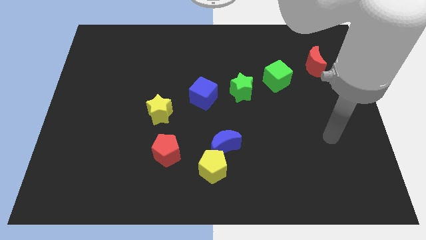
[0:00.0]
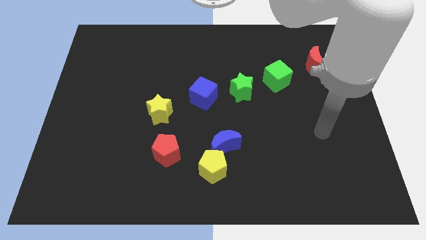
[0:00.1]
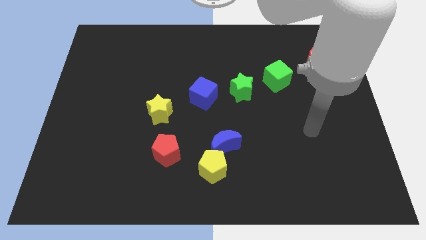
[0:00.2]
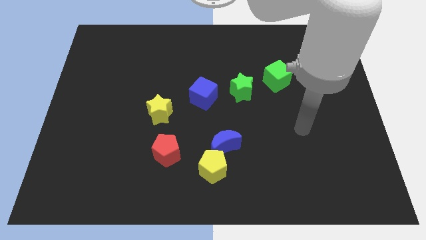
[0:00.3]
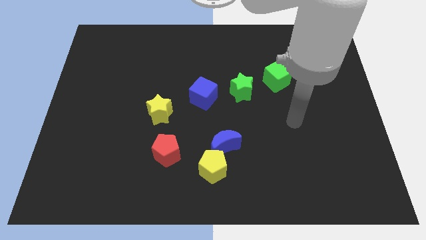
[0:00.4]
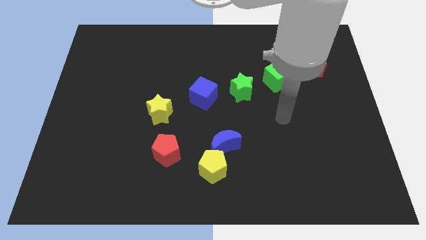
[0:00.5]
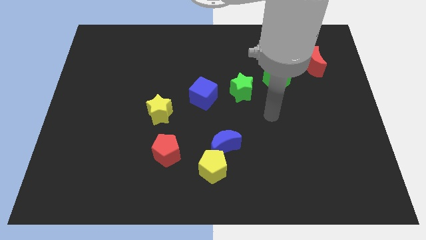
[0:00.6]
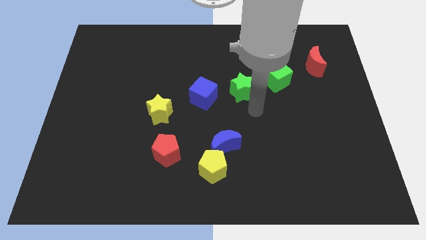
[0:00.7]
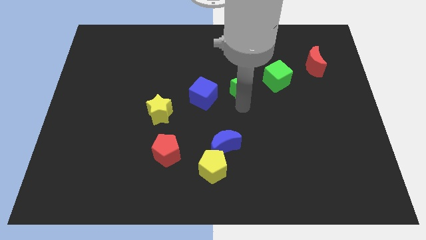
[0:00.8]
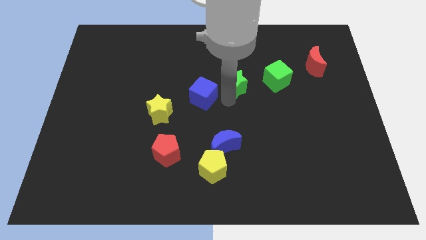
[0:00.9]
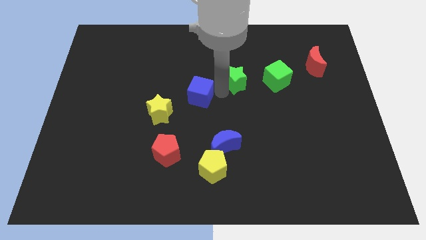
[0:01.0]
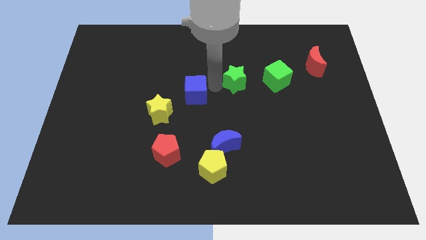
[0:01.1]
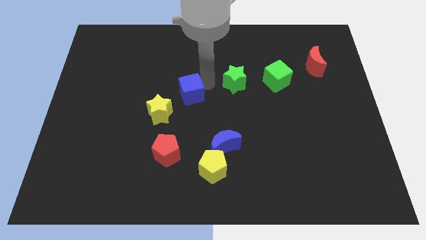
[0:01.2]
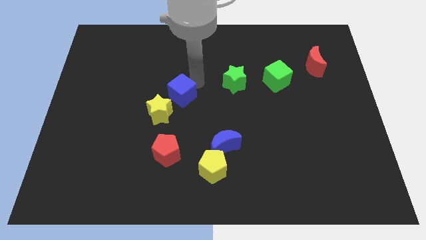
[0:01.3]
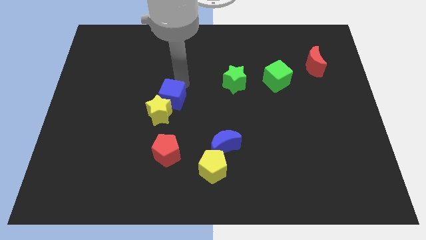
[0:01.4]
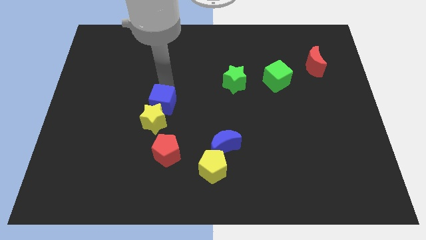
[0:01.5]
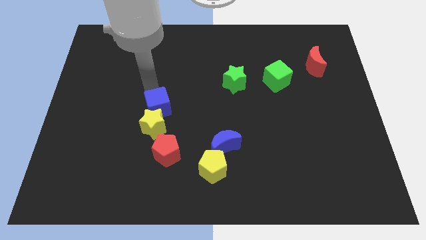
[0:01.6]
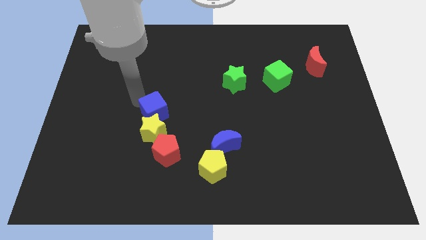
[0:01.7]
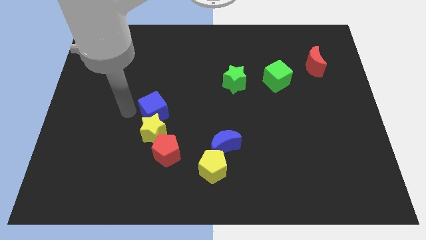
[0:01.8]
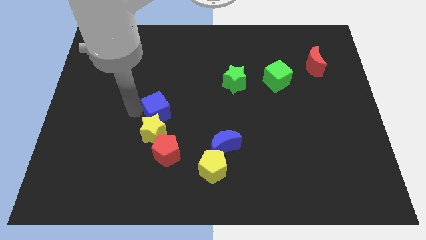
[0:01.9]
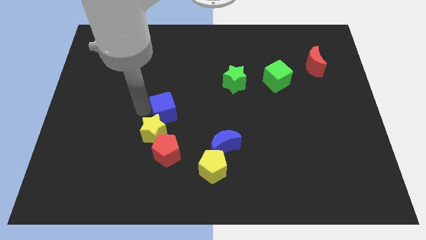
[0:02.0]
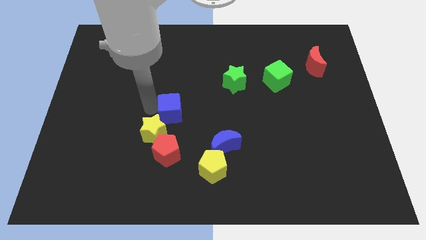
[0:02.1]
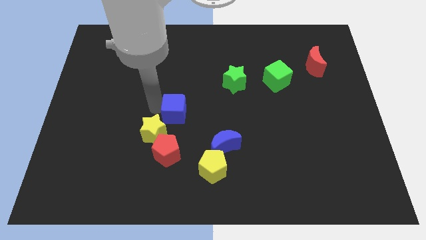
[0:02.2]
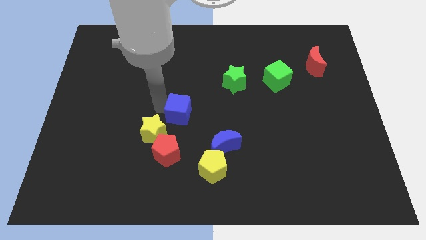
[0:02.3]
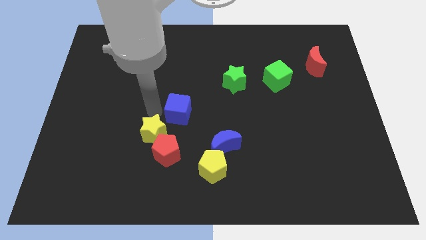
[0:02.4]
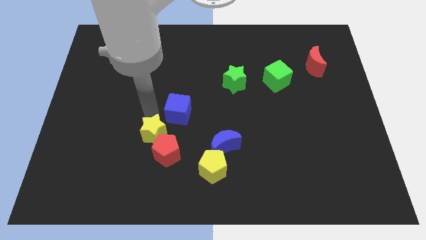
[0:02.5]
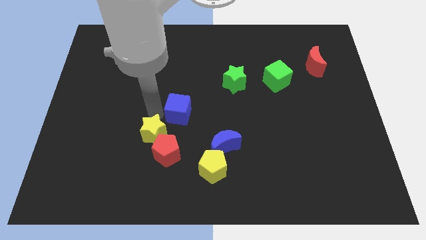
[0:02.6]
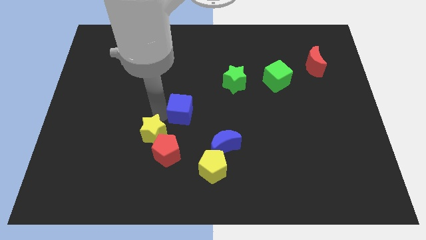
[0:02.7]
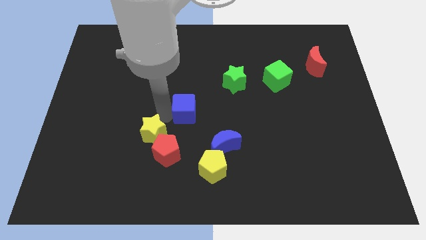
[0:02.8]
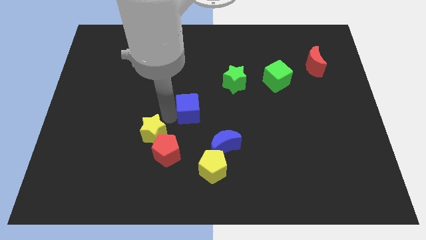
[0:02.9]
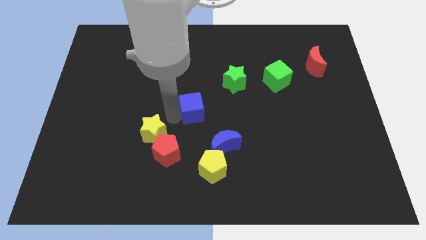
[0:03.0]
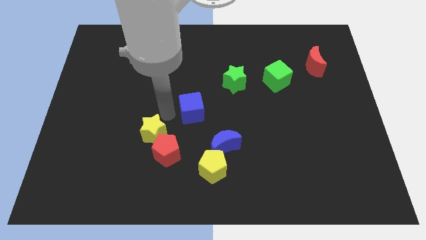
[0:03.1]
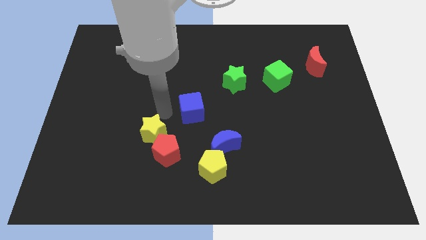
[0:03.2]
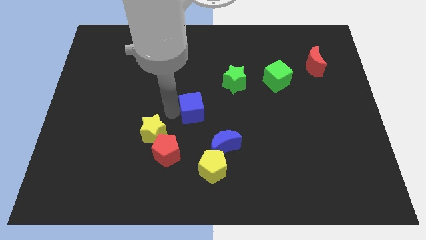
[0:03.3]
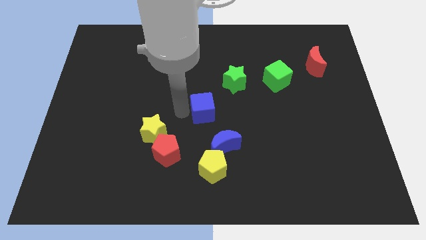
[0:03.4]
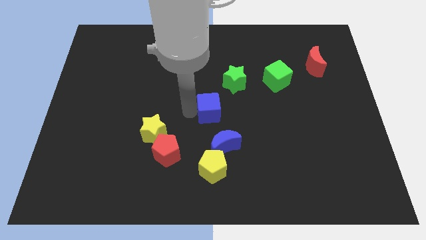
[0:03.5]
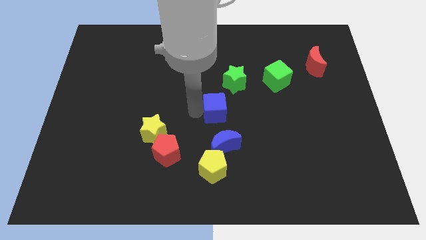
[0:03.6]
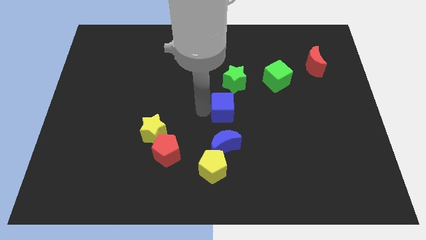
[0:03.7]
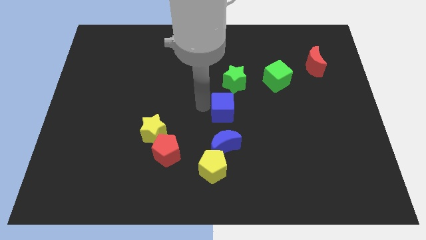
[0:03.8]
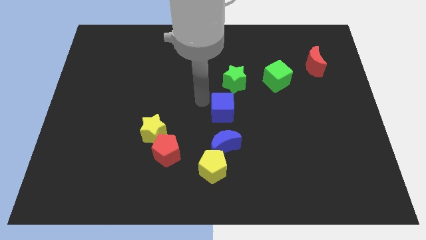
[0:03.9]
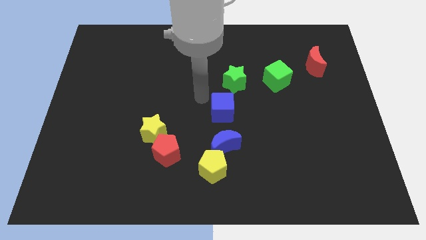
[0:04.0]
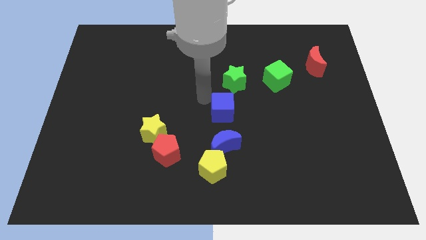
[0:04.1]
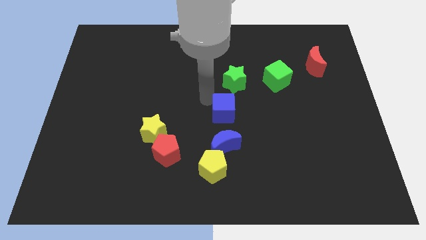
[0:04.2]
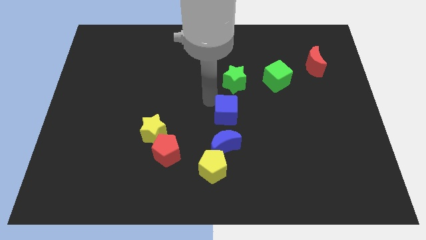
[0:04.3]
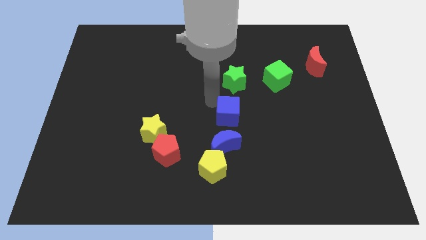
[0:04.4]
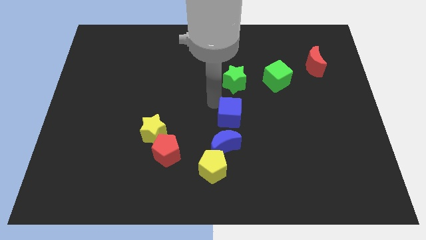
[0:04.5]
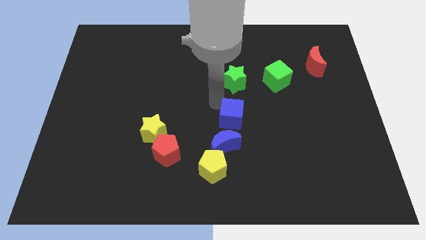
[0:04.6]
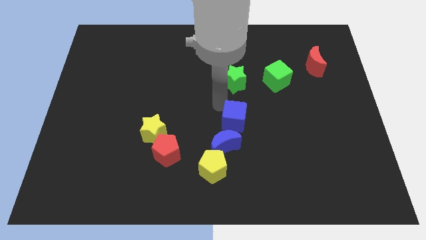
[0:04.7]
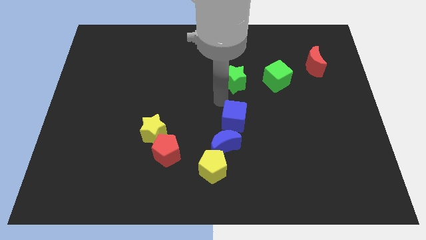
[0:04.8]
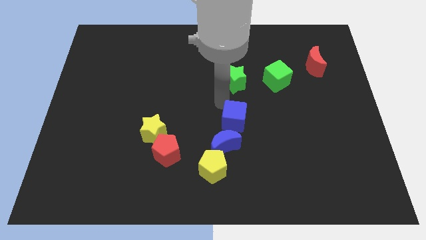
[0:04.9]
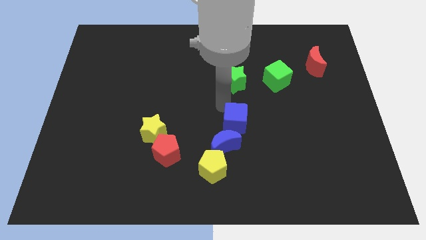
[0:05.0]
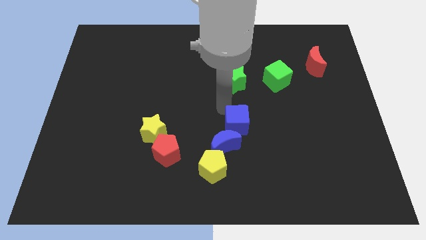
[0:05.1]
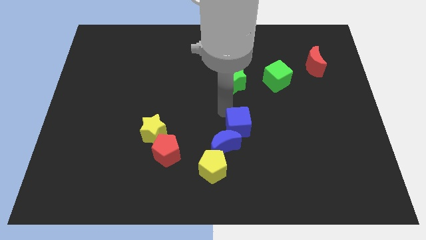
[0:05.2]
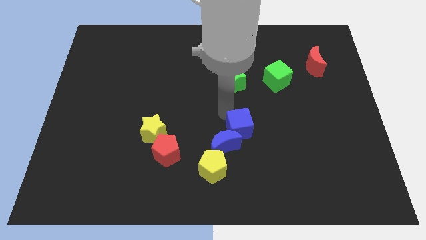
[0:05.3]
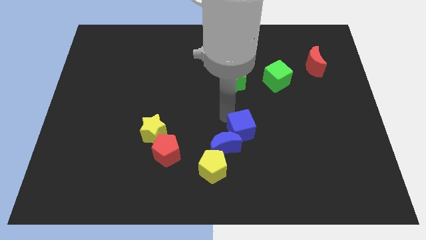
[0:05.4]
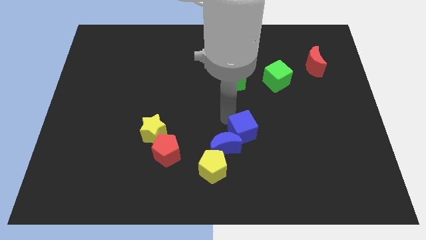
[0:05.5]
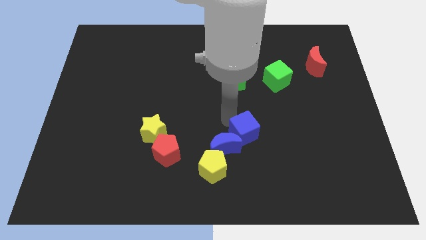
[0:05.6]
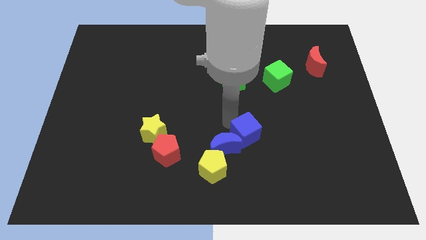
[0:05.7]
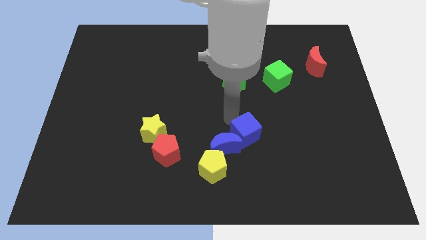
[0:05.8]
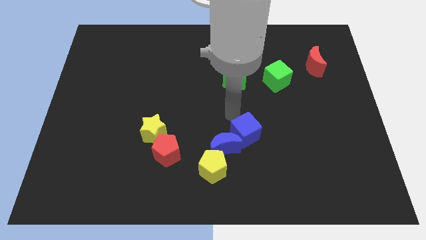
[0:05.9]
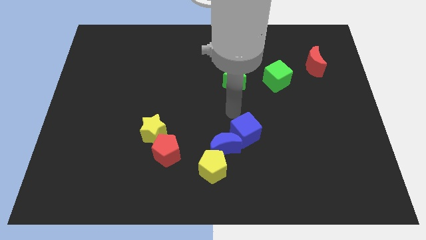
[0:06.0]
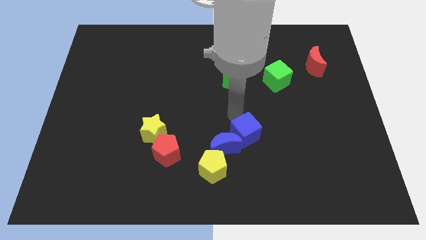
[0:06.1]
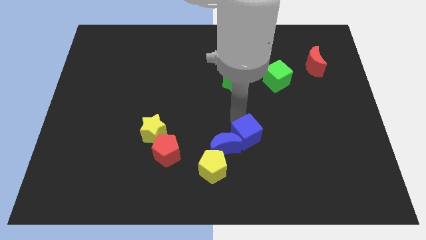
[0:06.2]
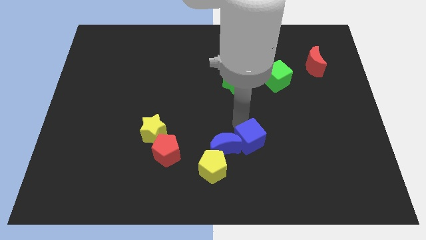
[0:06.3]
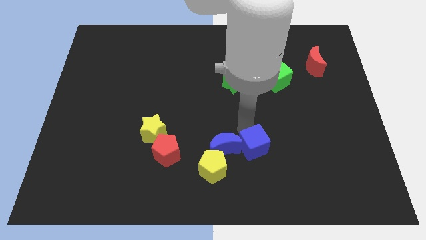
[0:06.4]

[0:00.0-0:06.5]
move the blue cube to the bottom right side of the blue moon
